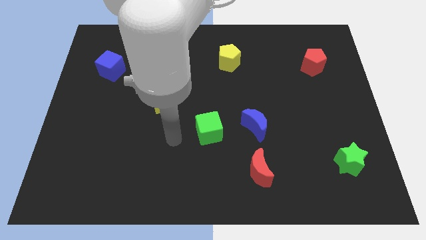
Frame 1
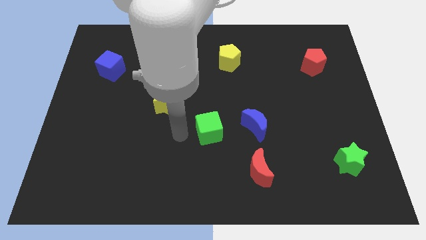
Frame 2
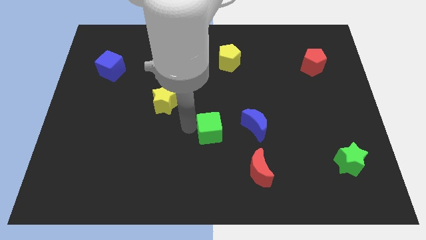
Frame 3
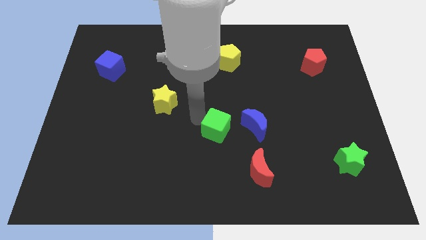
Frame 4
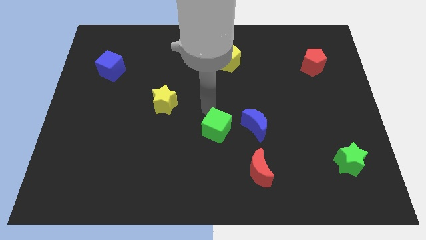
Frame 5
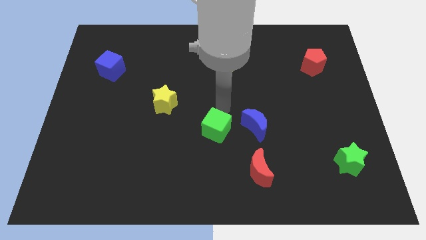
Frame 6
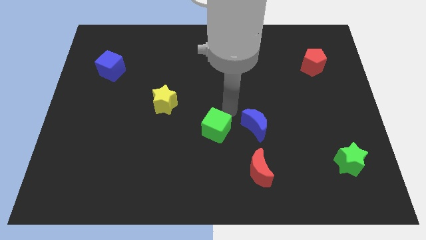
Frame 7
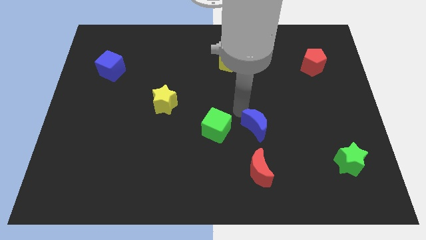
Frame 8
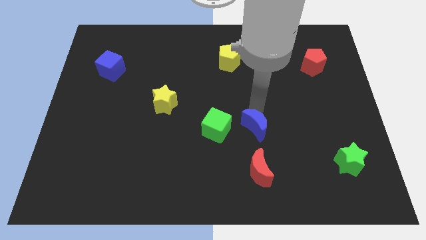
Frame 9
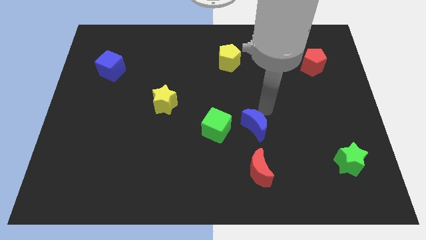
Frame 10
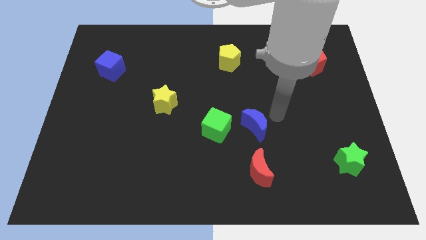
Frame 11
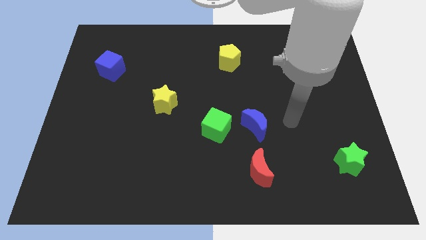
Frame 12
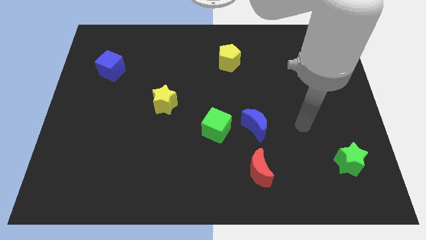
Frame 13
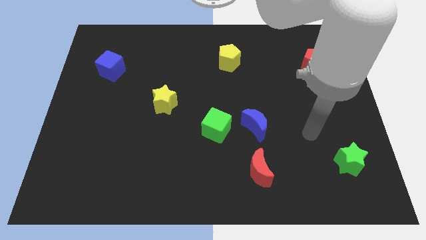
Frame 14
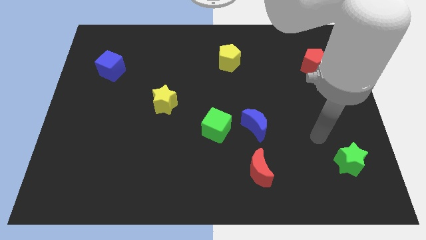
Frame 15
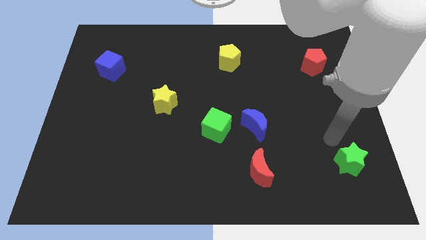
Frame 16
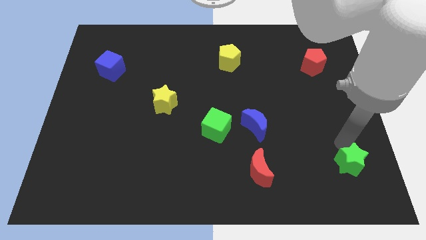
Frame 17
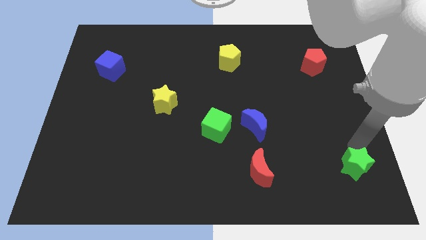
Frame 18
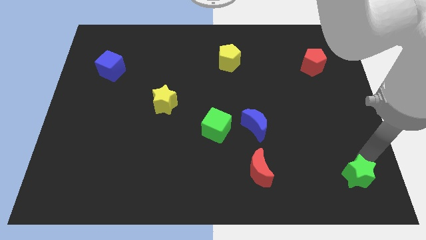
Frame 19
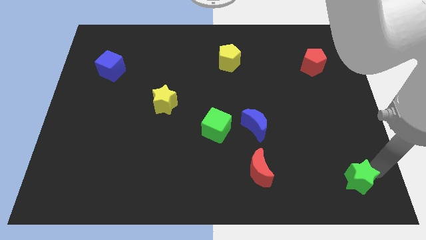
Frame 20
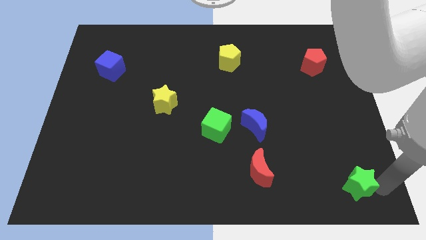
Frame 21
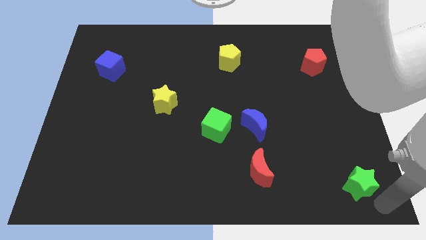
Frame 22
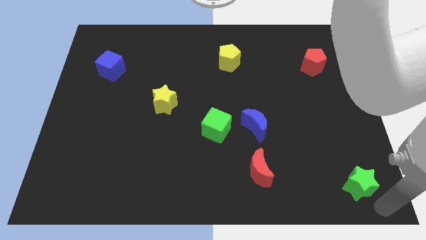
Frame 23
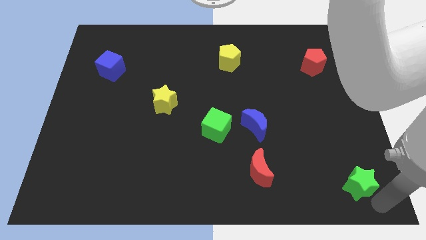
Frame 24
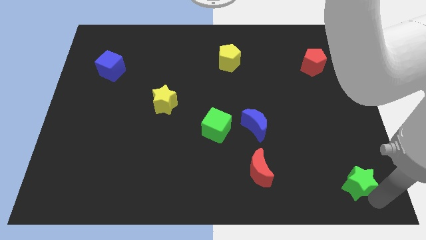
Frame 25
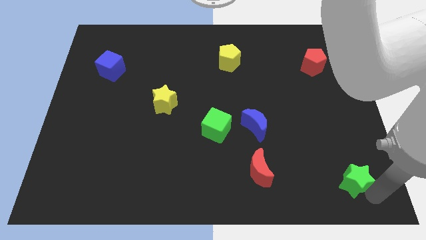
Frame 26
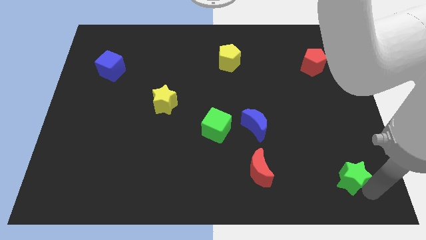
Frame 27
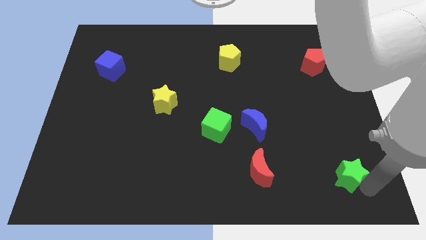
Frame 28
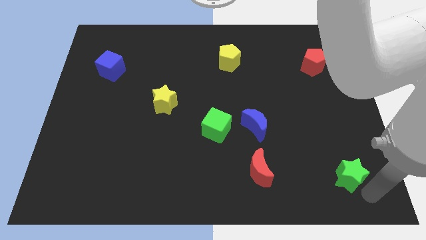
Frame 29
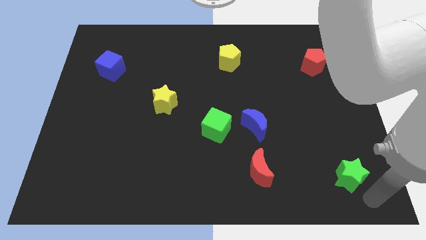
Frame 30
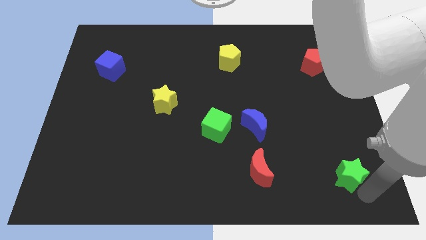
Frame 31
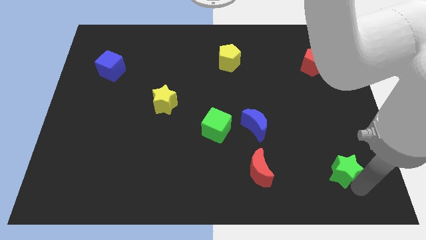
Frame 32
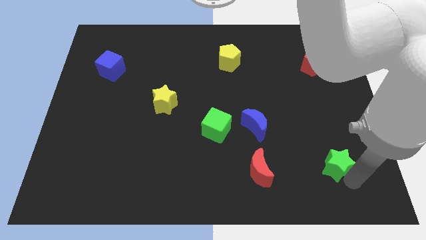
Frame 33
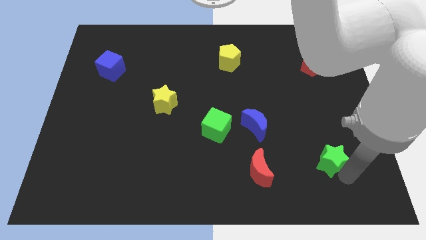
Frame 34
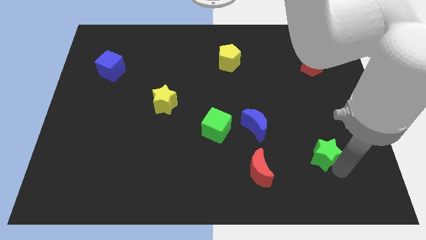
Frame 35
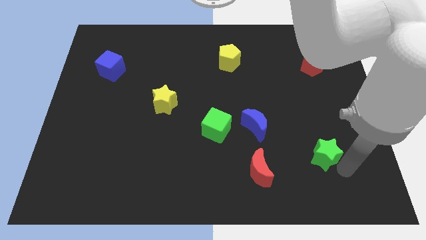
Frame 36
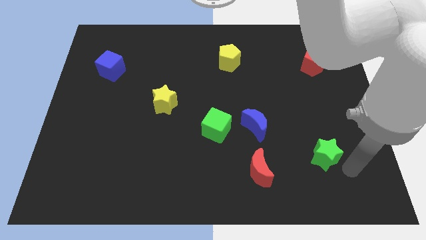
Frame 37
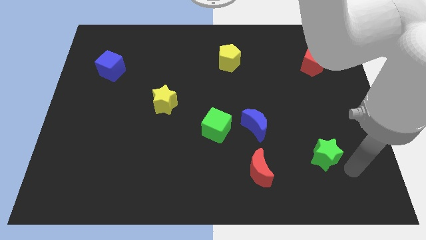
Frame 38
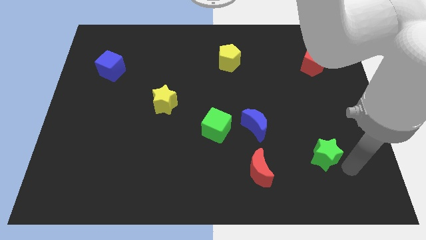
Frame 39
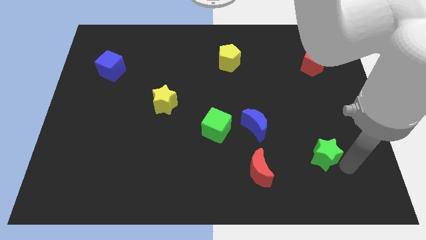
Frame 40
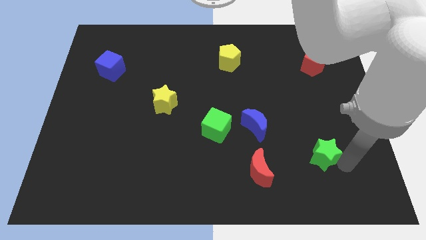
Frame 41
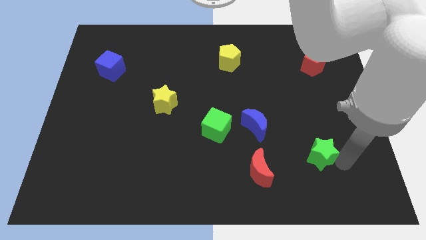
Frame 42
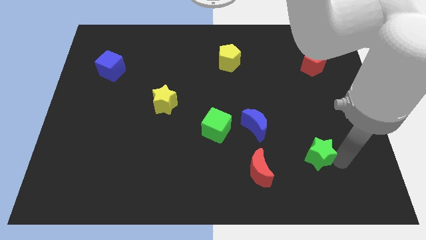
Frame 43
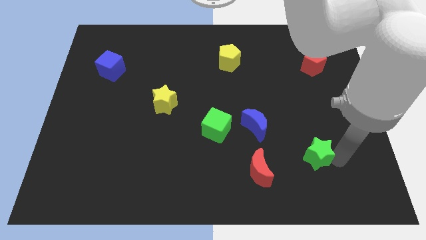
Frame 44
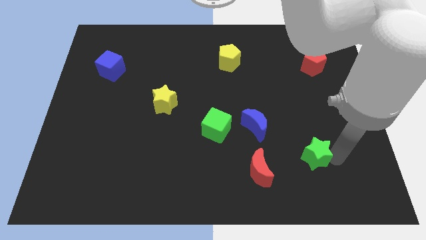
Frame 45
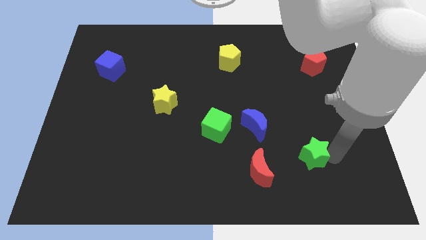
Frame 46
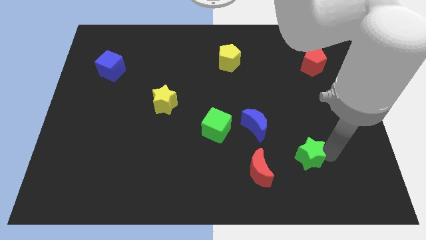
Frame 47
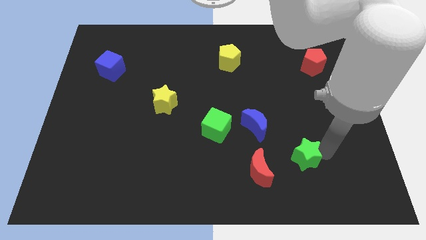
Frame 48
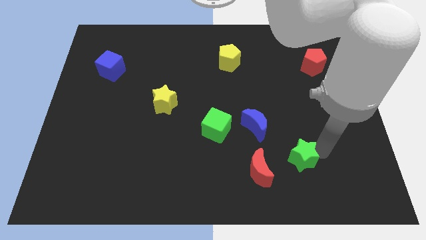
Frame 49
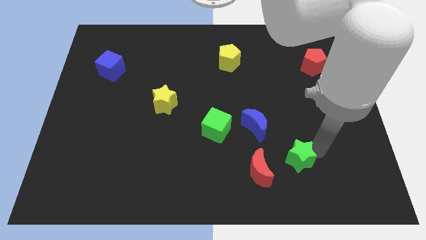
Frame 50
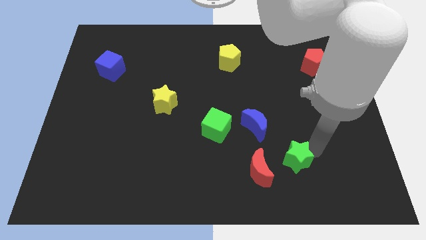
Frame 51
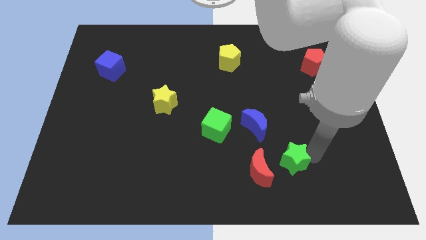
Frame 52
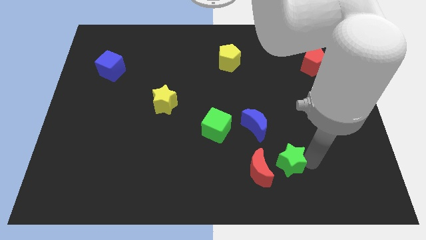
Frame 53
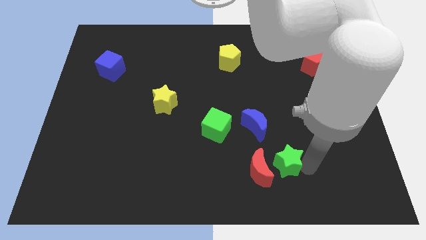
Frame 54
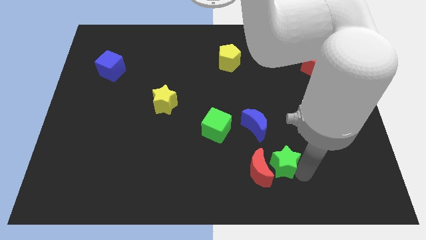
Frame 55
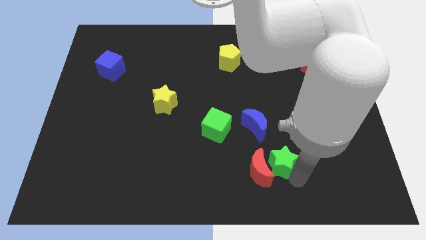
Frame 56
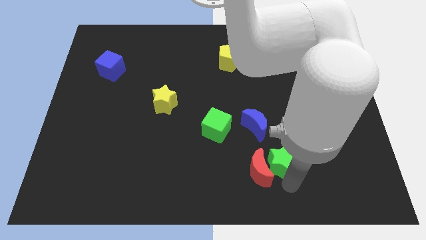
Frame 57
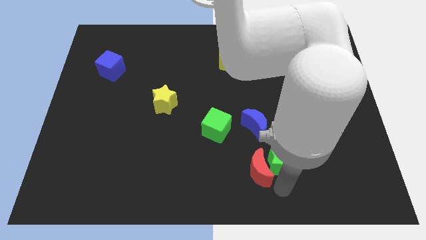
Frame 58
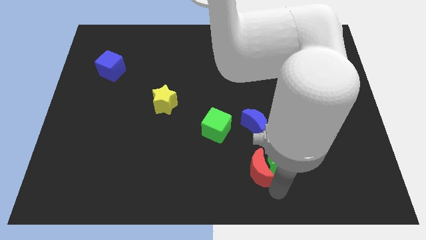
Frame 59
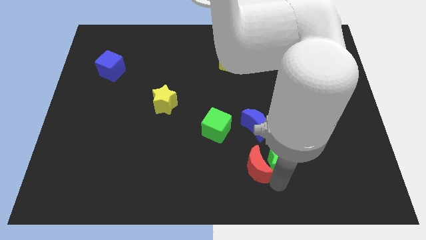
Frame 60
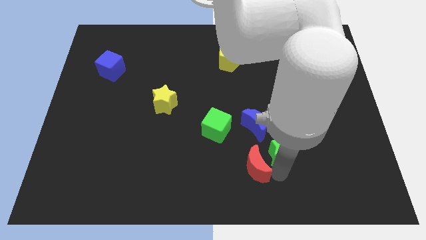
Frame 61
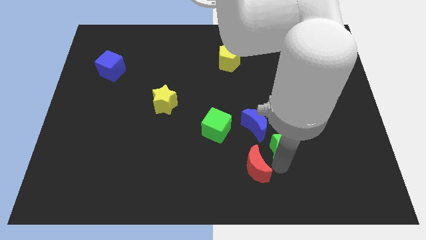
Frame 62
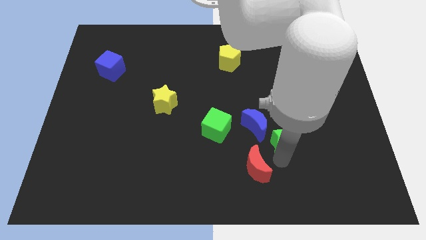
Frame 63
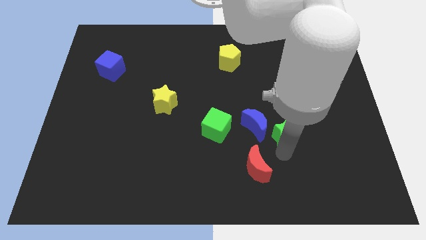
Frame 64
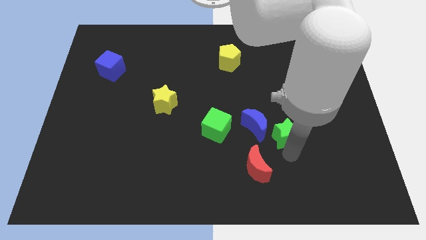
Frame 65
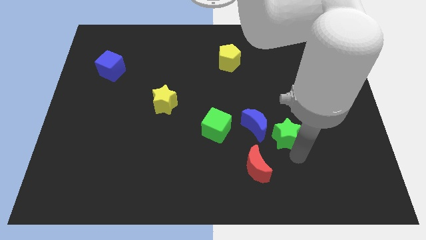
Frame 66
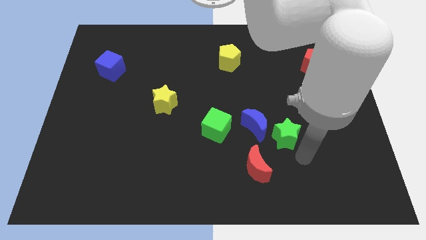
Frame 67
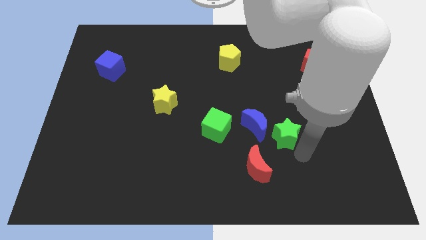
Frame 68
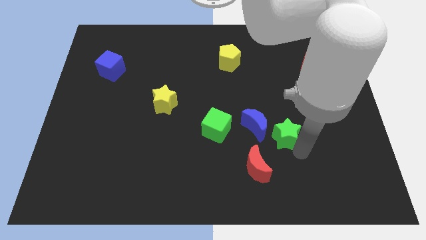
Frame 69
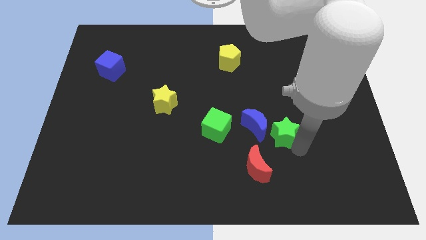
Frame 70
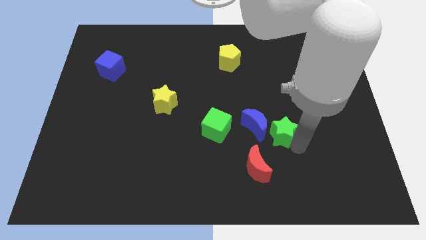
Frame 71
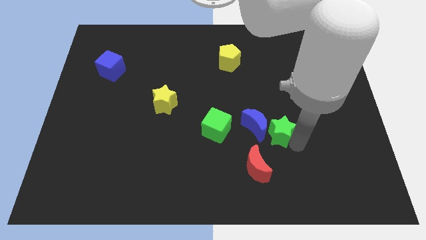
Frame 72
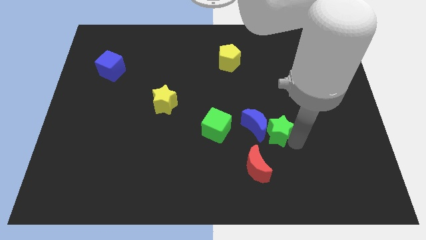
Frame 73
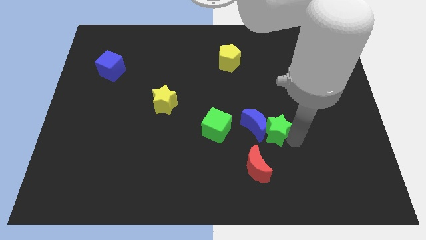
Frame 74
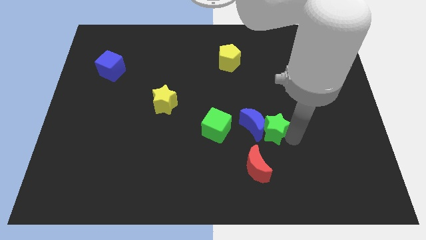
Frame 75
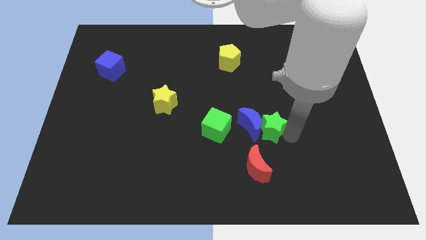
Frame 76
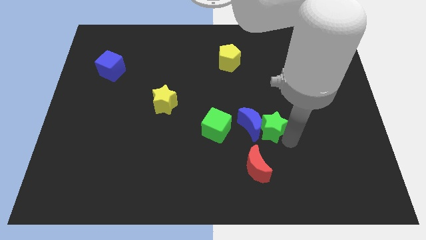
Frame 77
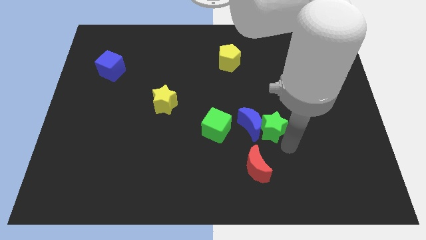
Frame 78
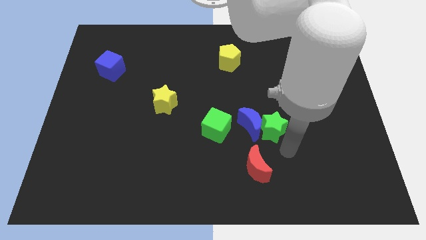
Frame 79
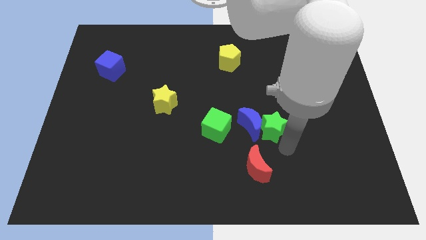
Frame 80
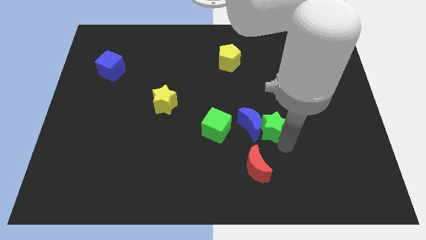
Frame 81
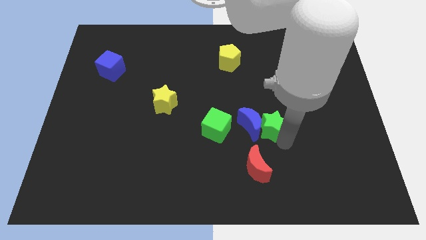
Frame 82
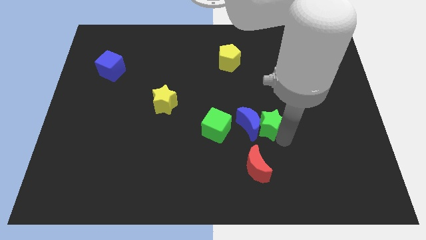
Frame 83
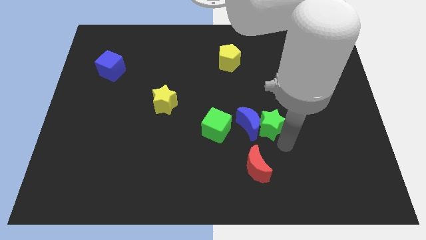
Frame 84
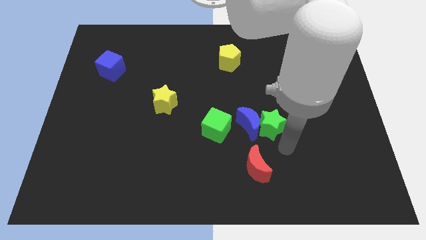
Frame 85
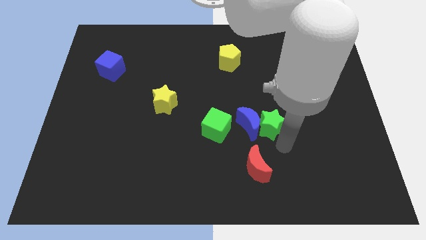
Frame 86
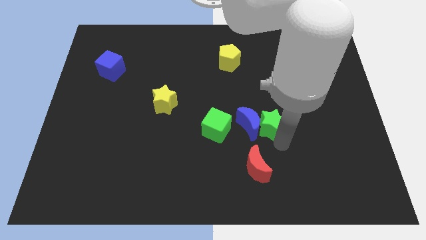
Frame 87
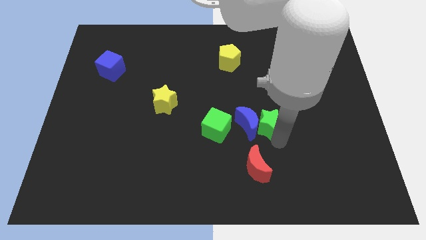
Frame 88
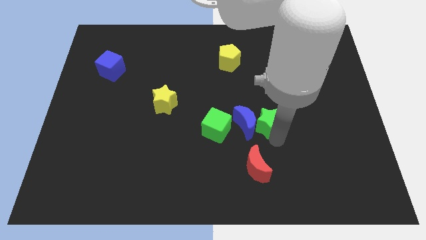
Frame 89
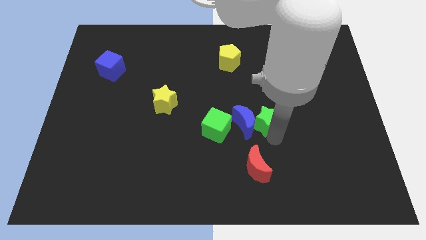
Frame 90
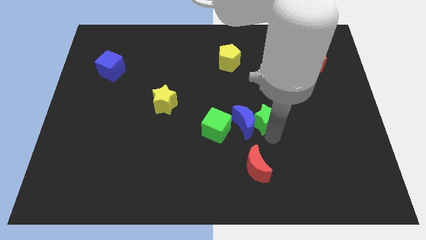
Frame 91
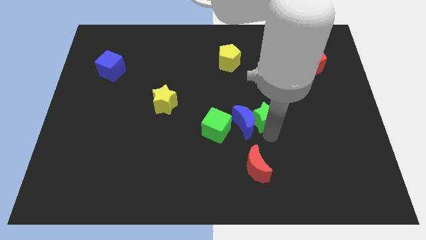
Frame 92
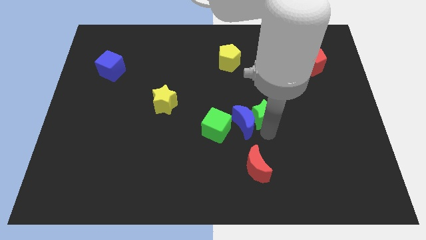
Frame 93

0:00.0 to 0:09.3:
move the green star to the center
